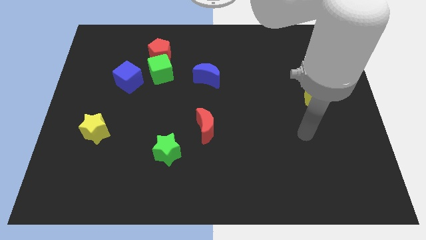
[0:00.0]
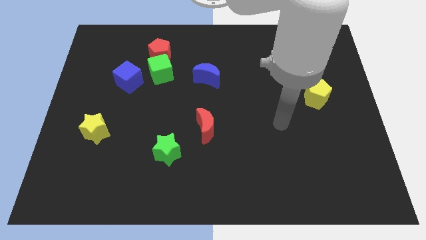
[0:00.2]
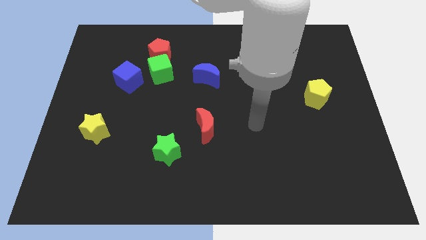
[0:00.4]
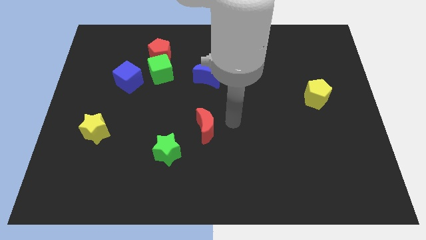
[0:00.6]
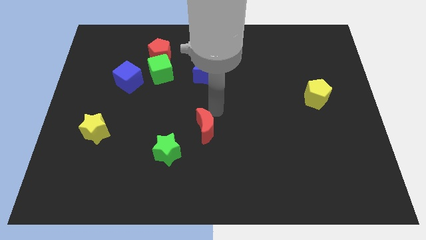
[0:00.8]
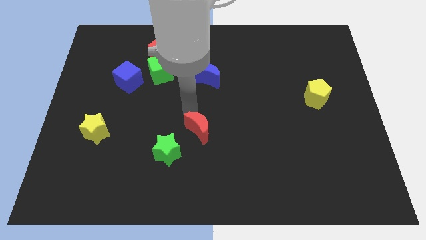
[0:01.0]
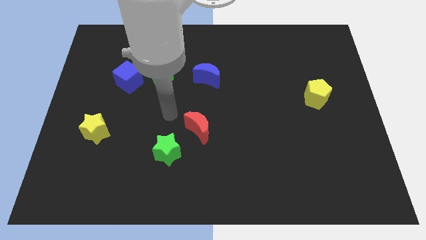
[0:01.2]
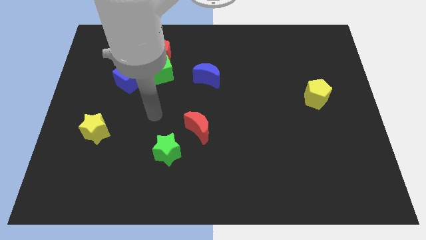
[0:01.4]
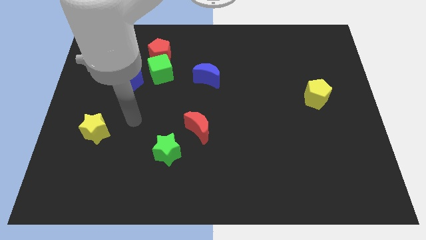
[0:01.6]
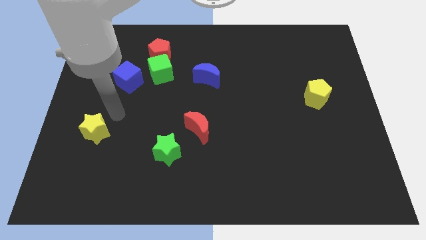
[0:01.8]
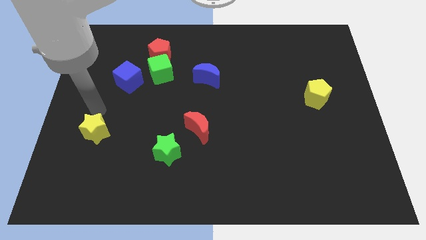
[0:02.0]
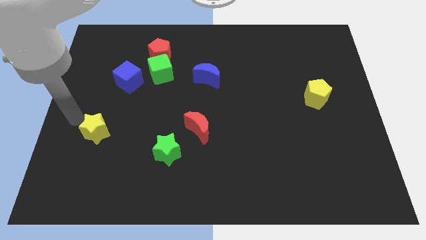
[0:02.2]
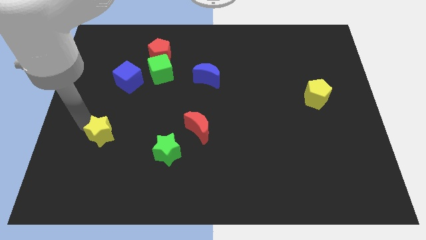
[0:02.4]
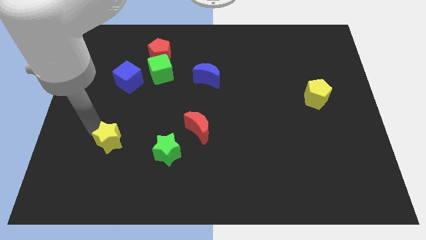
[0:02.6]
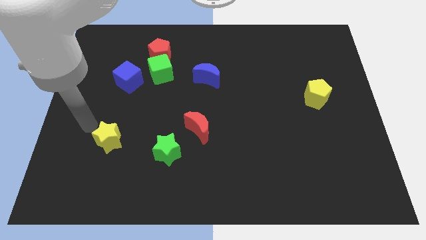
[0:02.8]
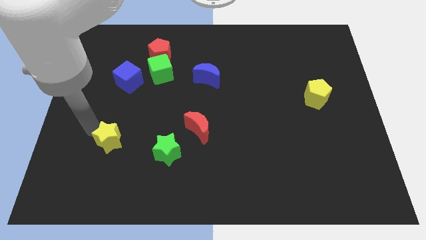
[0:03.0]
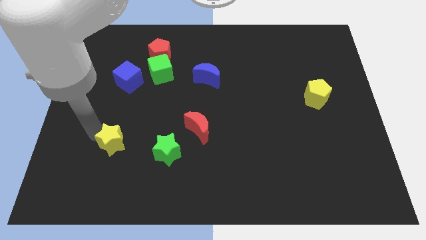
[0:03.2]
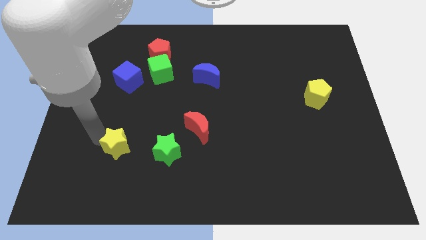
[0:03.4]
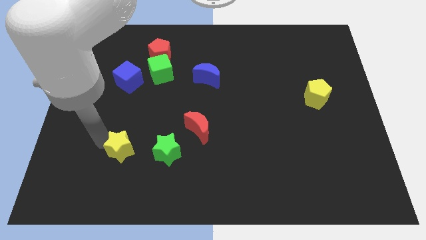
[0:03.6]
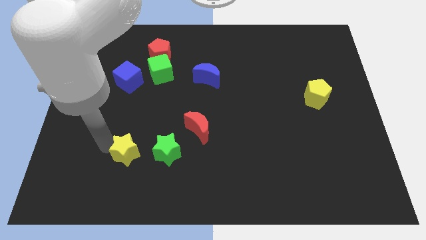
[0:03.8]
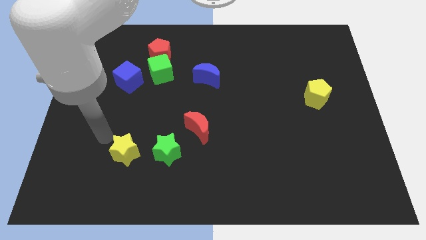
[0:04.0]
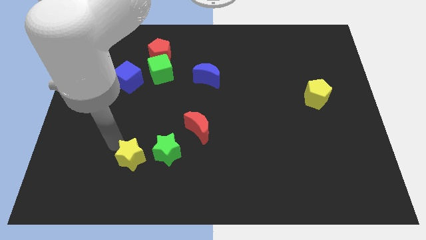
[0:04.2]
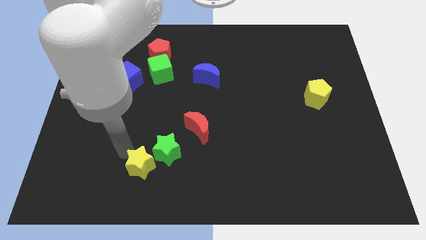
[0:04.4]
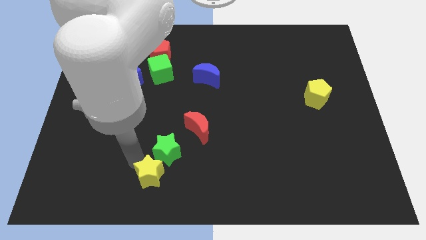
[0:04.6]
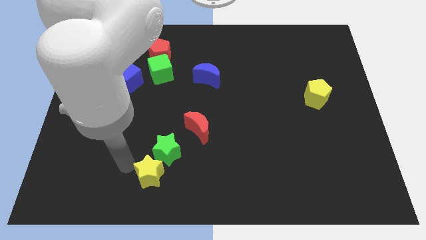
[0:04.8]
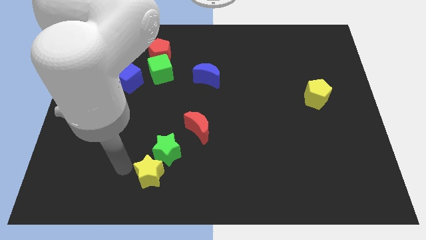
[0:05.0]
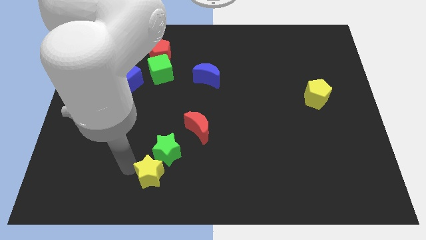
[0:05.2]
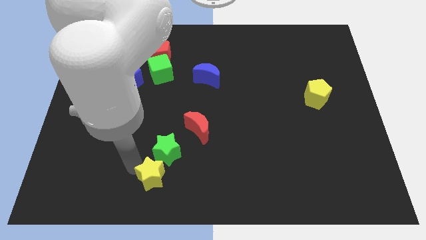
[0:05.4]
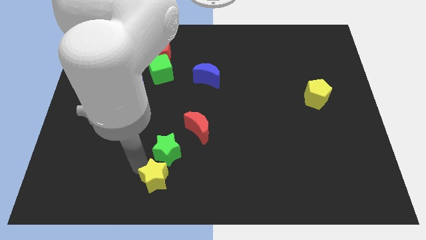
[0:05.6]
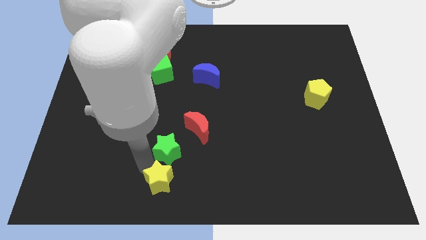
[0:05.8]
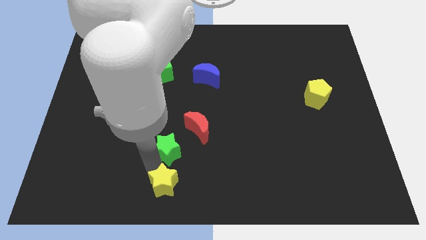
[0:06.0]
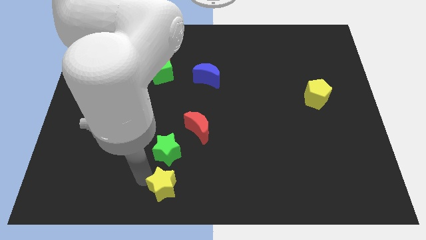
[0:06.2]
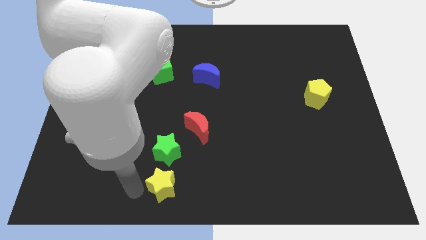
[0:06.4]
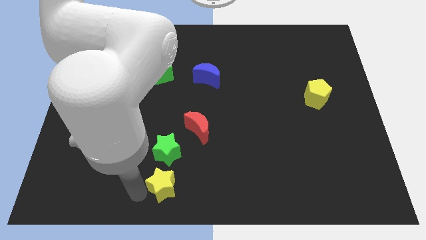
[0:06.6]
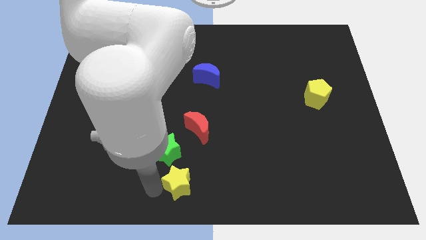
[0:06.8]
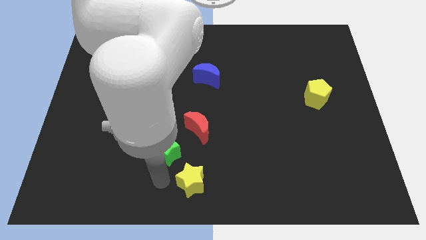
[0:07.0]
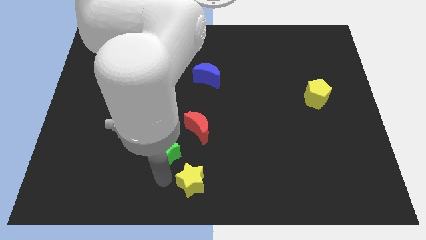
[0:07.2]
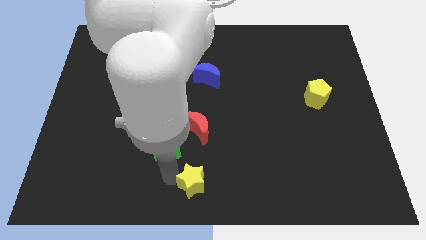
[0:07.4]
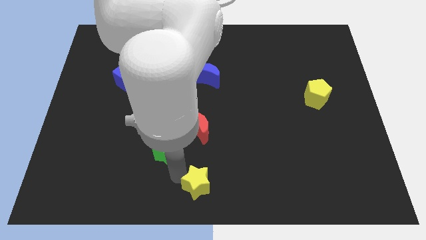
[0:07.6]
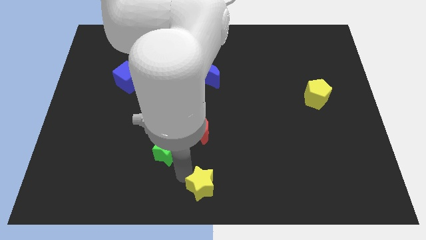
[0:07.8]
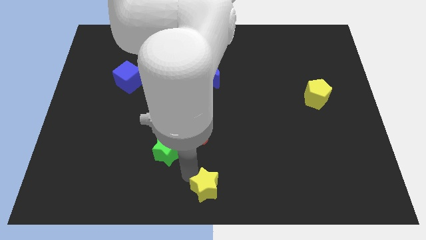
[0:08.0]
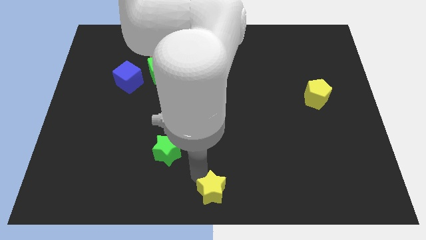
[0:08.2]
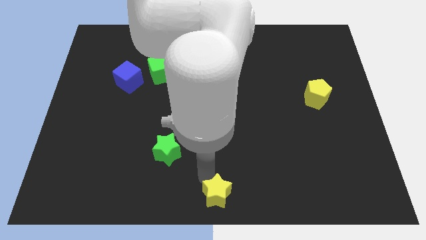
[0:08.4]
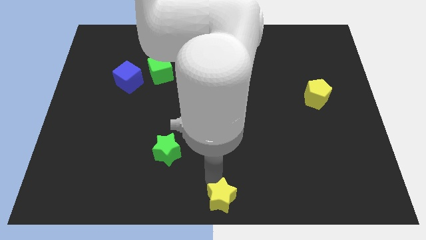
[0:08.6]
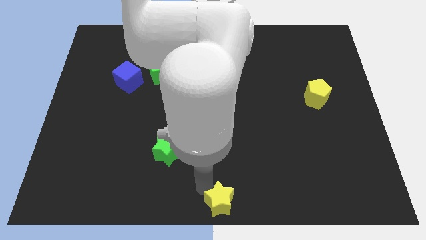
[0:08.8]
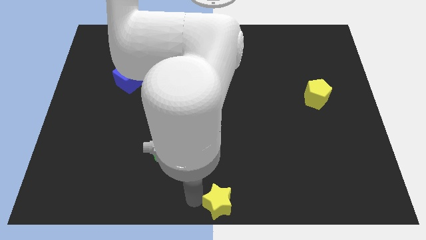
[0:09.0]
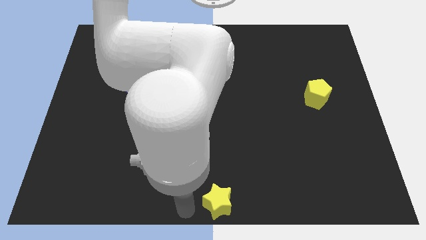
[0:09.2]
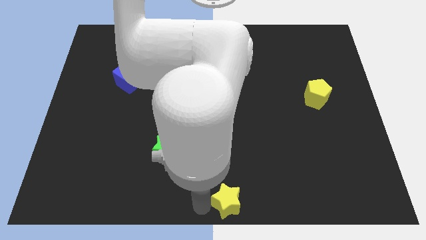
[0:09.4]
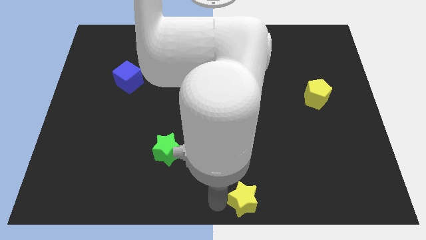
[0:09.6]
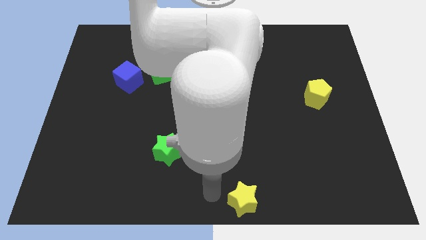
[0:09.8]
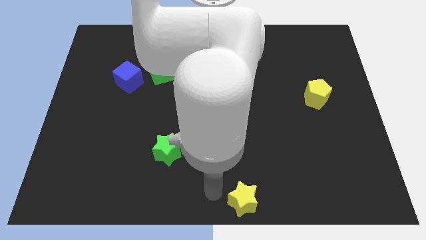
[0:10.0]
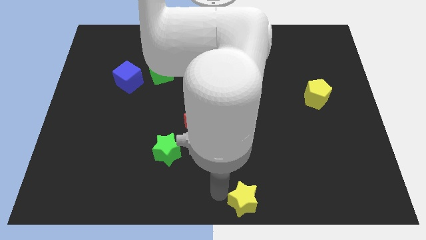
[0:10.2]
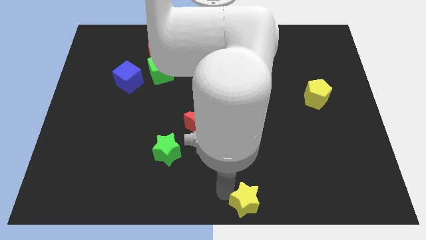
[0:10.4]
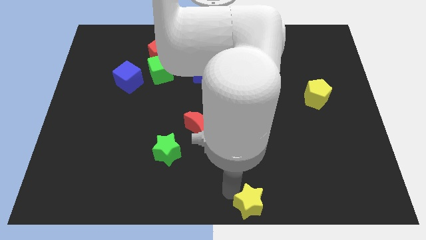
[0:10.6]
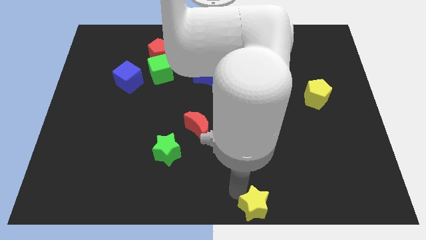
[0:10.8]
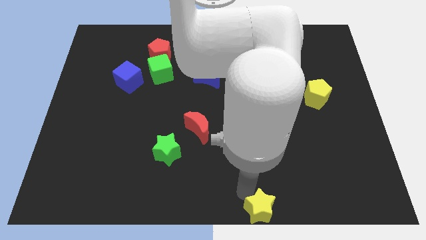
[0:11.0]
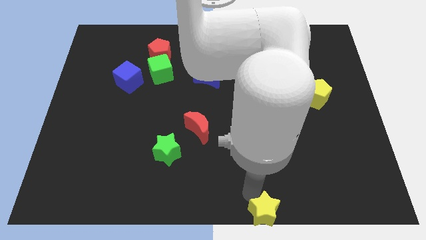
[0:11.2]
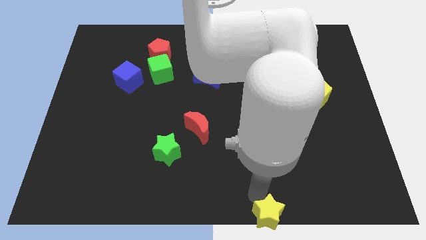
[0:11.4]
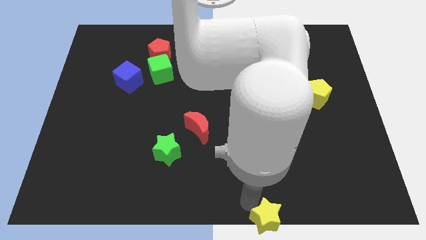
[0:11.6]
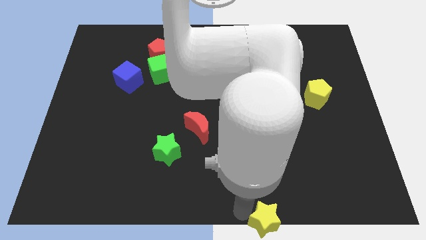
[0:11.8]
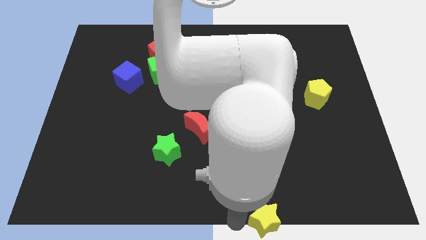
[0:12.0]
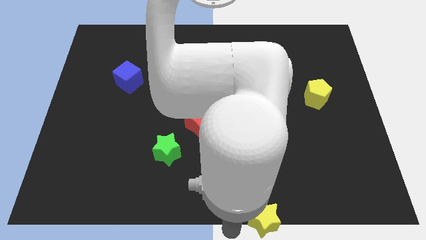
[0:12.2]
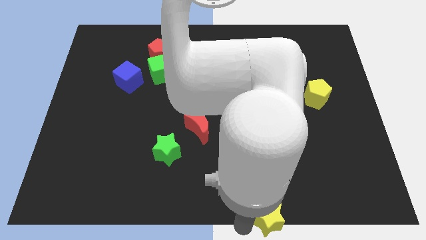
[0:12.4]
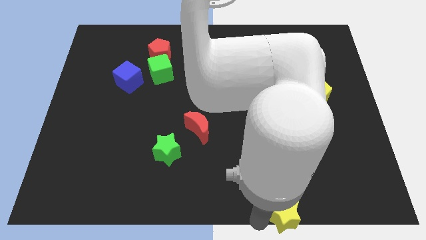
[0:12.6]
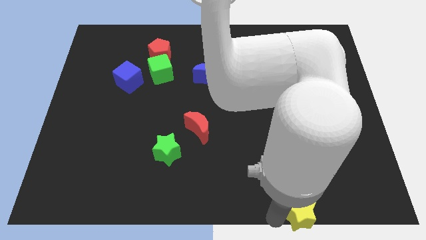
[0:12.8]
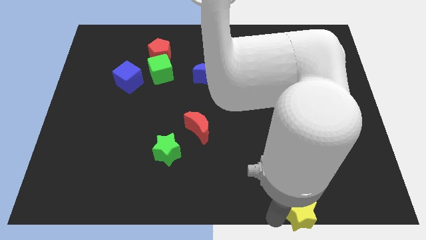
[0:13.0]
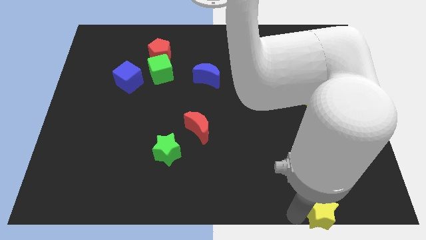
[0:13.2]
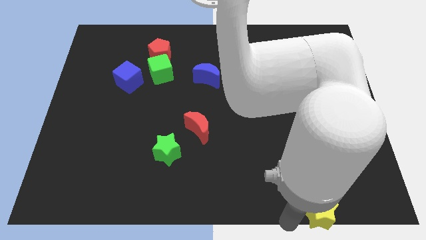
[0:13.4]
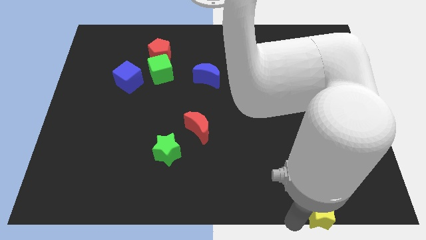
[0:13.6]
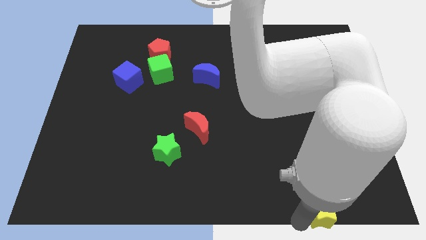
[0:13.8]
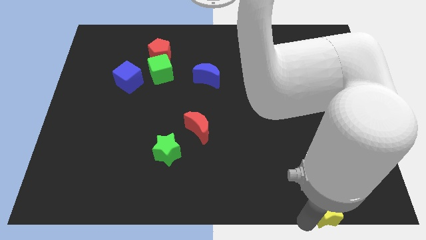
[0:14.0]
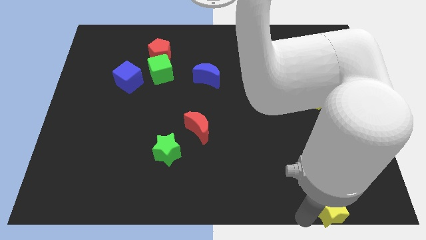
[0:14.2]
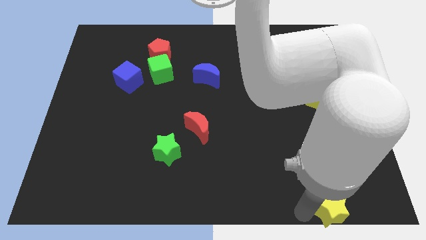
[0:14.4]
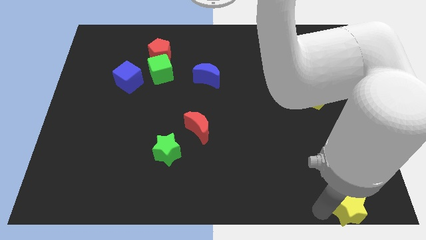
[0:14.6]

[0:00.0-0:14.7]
move the yellow star to the bottom right corner
